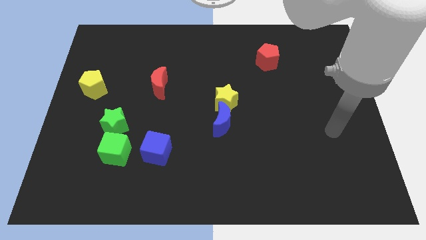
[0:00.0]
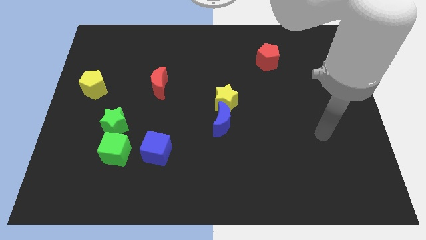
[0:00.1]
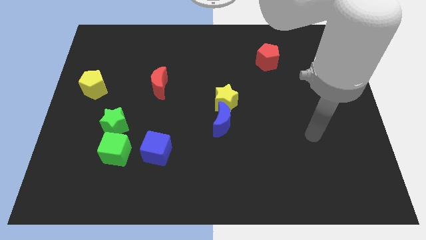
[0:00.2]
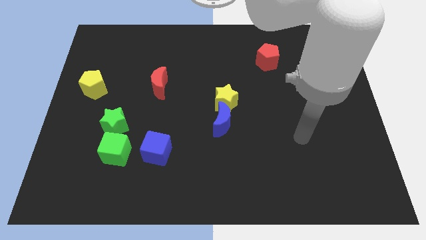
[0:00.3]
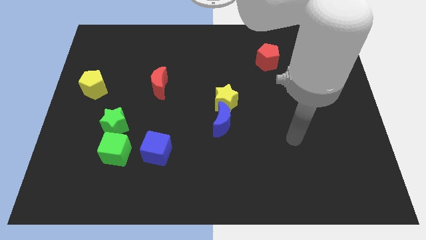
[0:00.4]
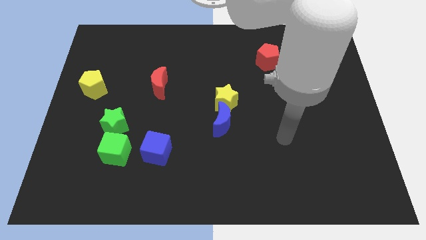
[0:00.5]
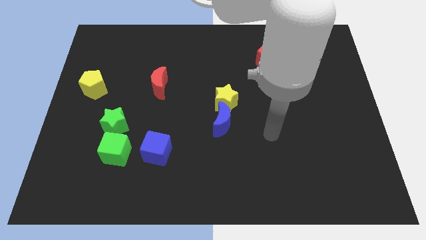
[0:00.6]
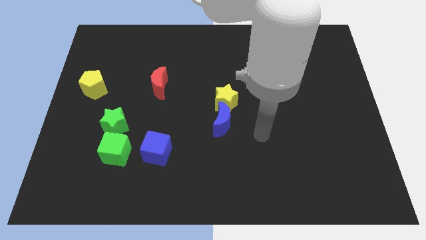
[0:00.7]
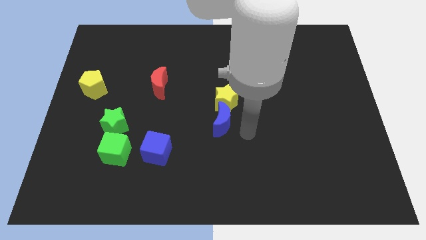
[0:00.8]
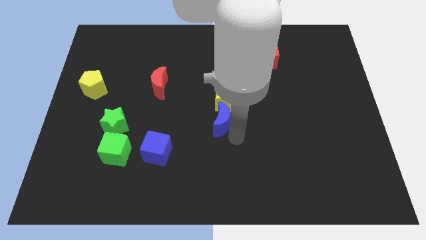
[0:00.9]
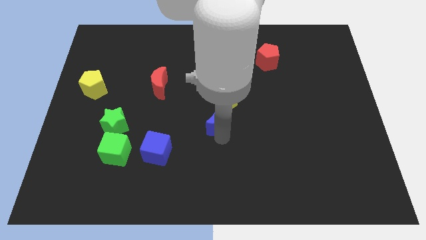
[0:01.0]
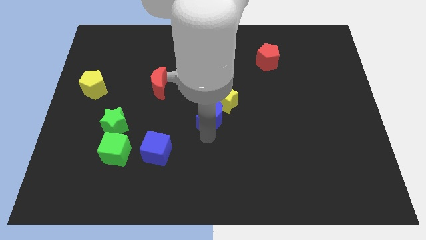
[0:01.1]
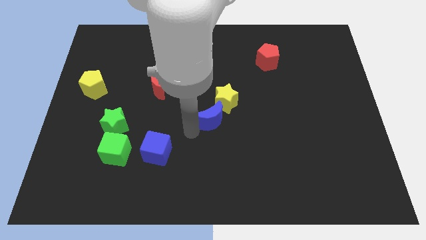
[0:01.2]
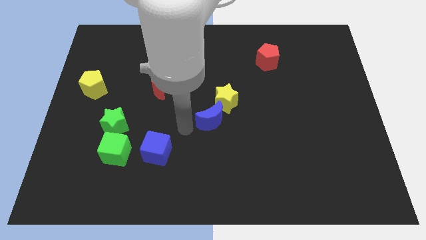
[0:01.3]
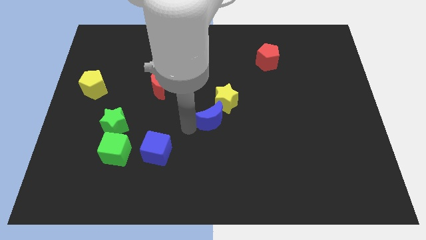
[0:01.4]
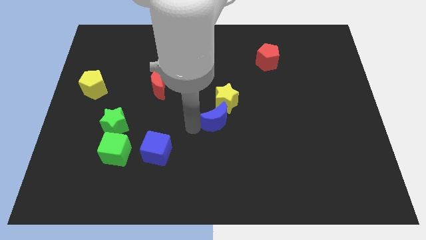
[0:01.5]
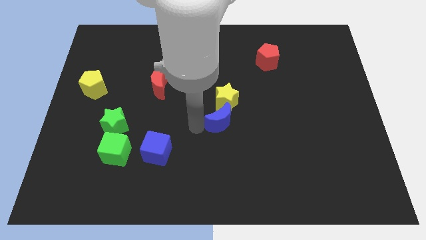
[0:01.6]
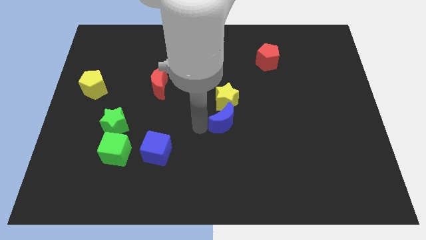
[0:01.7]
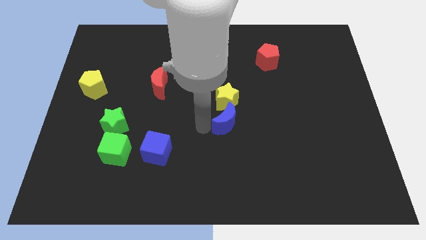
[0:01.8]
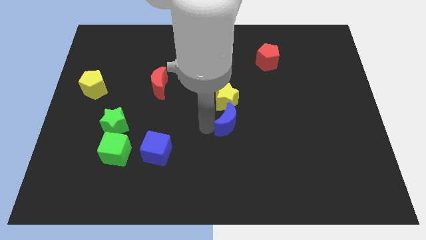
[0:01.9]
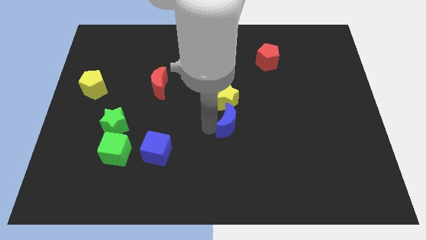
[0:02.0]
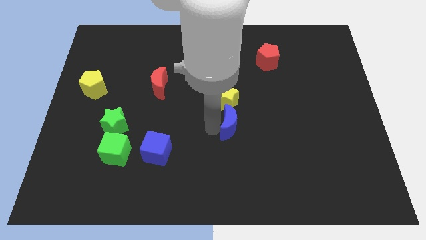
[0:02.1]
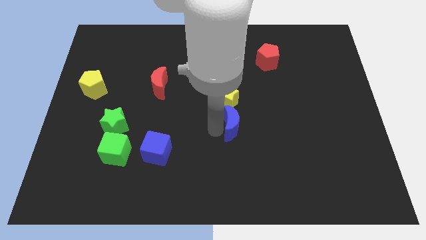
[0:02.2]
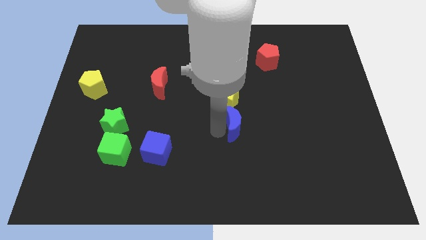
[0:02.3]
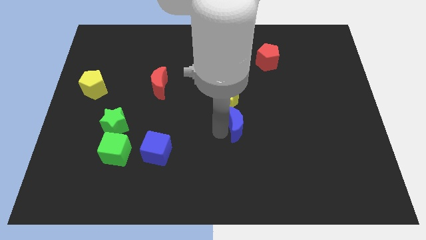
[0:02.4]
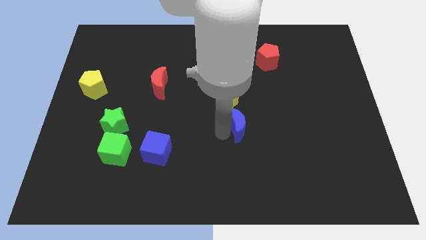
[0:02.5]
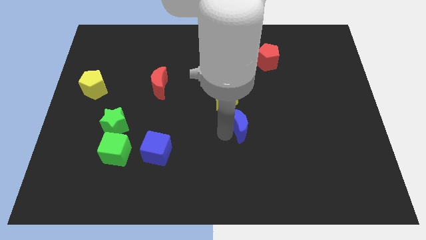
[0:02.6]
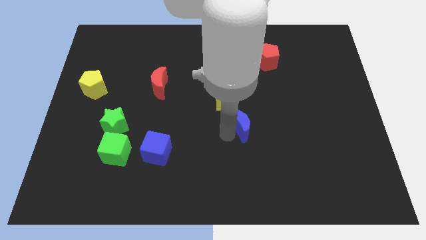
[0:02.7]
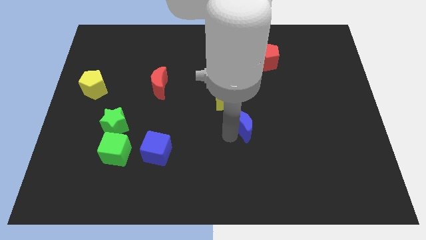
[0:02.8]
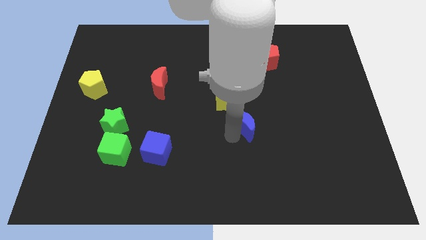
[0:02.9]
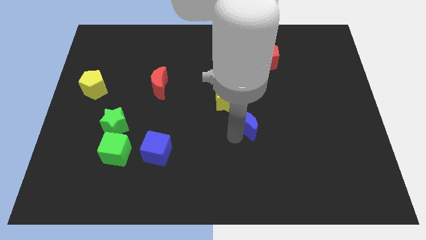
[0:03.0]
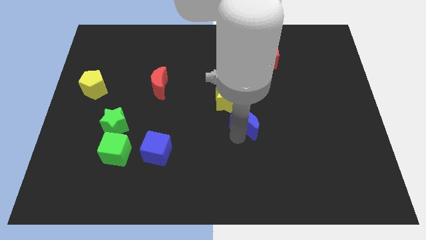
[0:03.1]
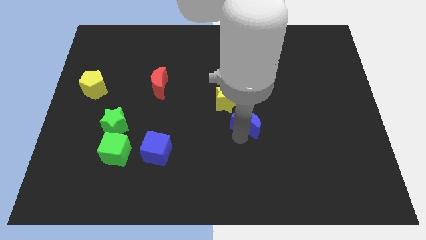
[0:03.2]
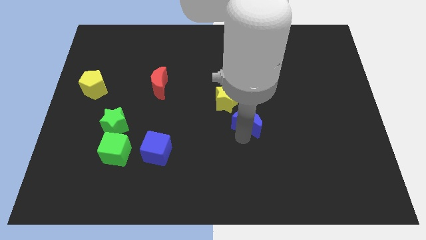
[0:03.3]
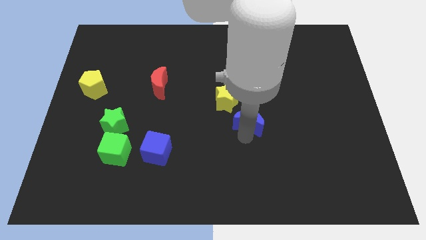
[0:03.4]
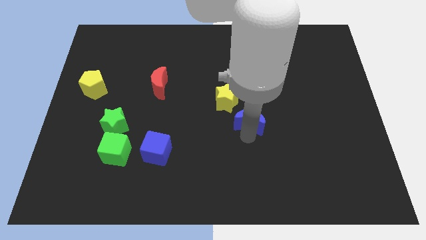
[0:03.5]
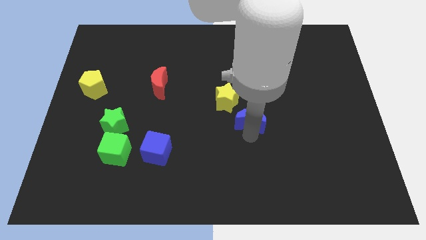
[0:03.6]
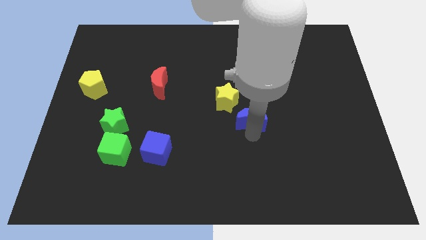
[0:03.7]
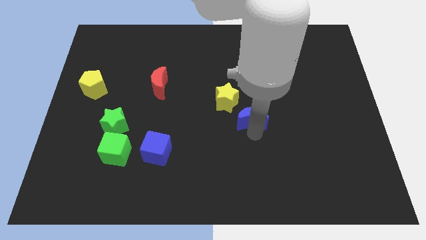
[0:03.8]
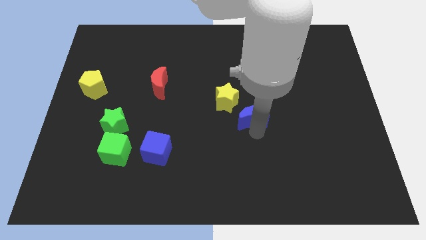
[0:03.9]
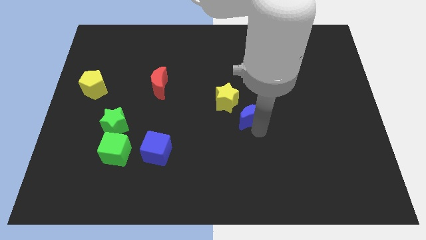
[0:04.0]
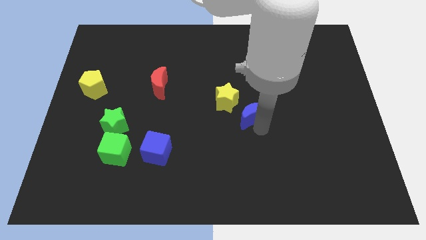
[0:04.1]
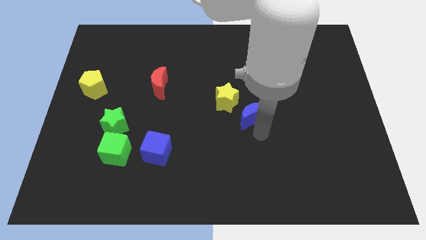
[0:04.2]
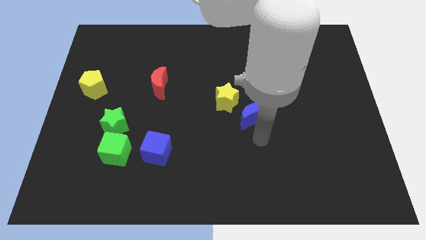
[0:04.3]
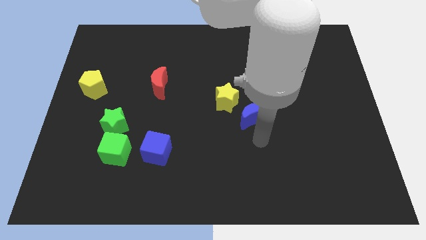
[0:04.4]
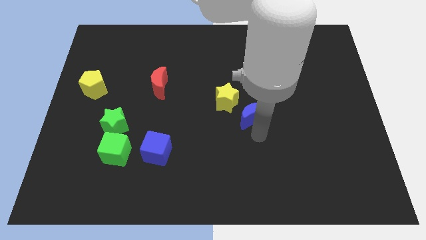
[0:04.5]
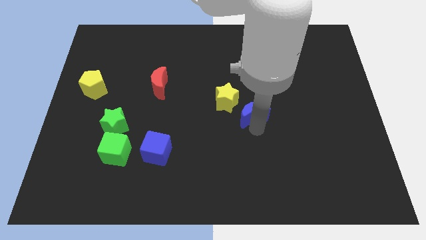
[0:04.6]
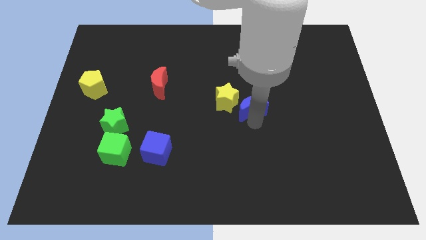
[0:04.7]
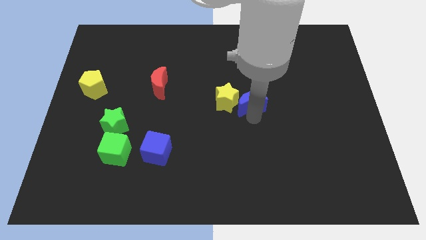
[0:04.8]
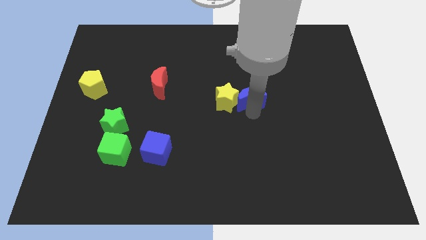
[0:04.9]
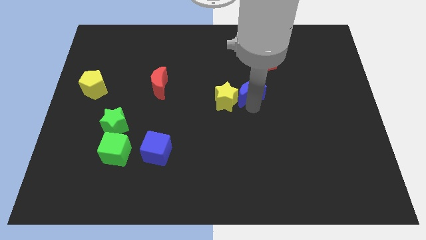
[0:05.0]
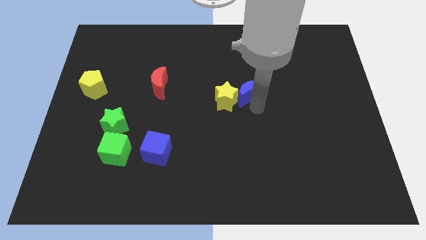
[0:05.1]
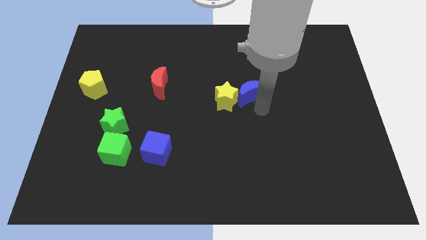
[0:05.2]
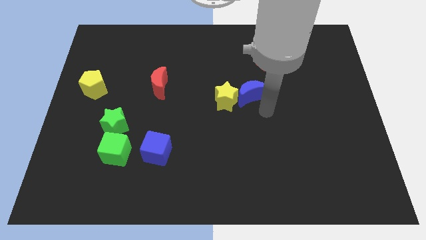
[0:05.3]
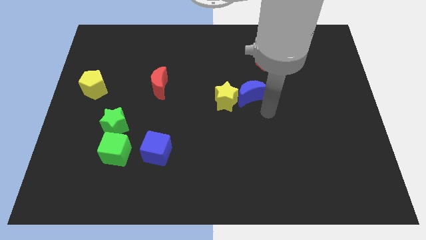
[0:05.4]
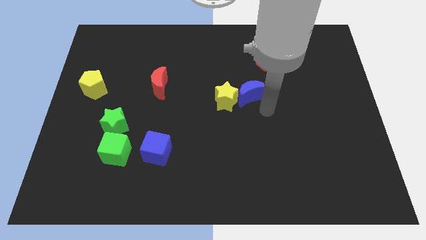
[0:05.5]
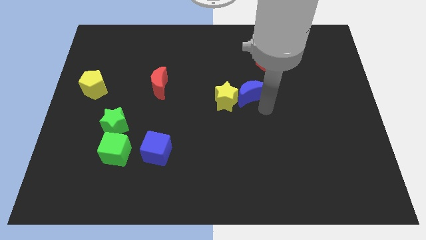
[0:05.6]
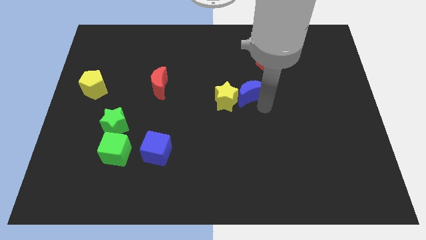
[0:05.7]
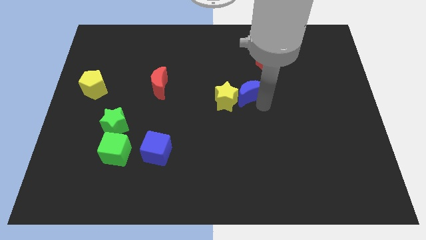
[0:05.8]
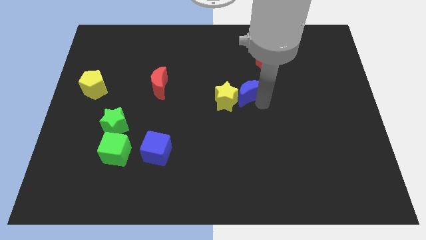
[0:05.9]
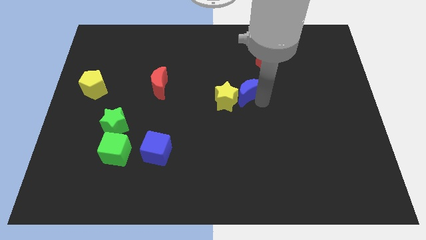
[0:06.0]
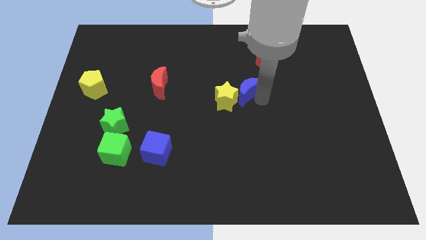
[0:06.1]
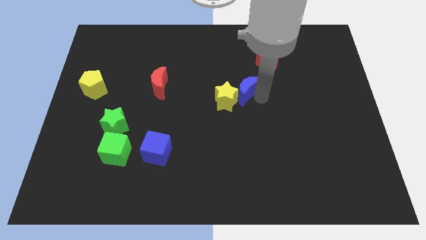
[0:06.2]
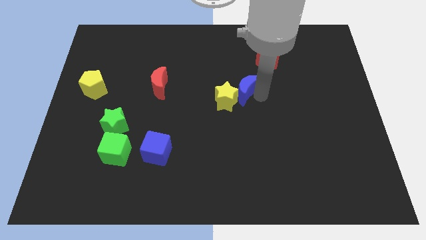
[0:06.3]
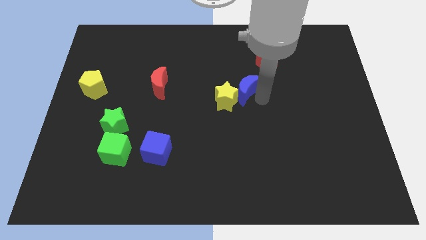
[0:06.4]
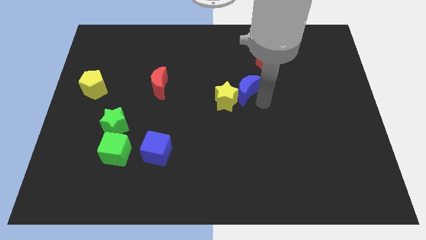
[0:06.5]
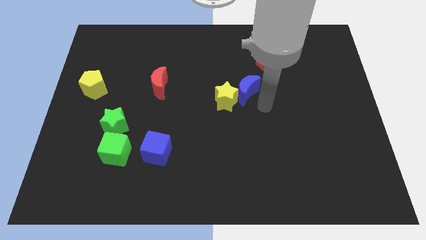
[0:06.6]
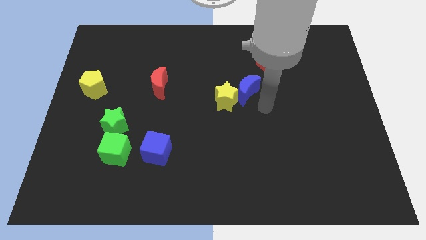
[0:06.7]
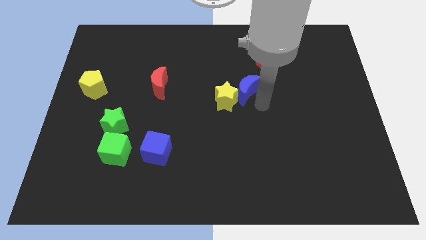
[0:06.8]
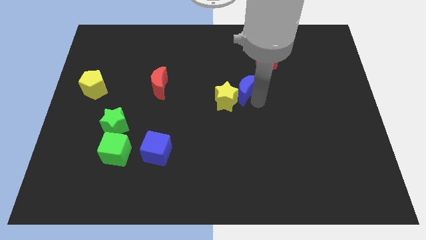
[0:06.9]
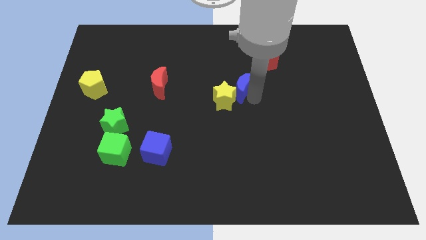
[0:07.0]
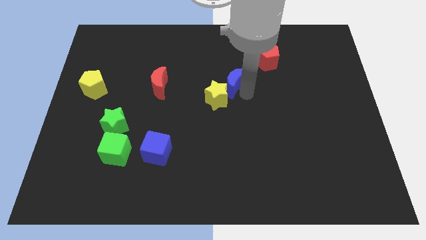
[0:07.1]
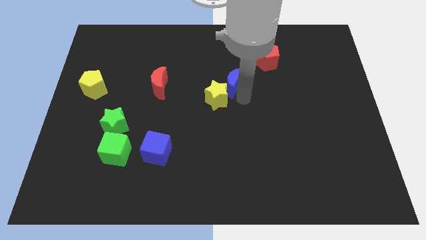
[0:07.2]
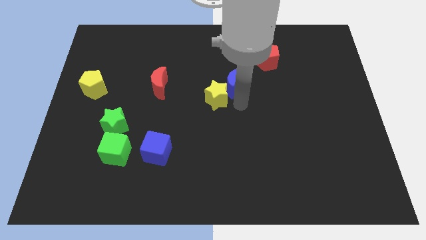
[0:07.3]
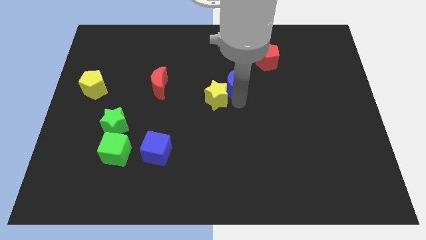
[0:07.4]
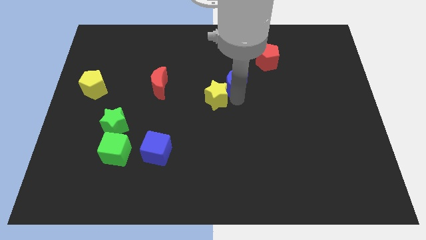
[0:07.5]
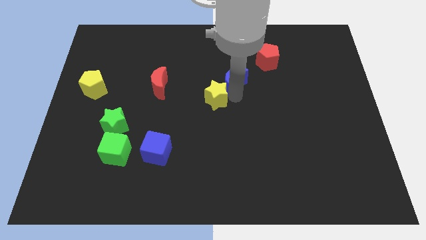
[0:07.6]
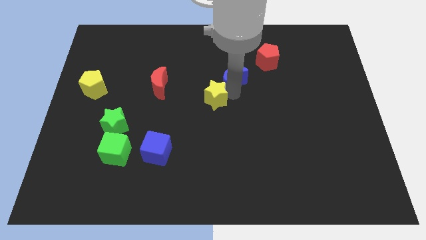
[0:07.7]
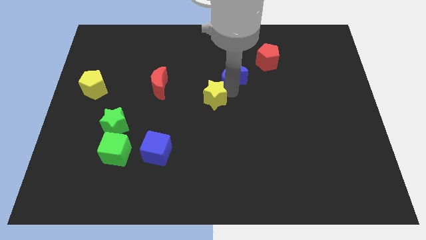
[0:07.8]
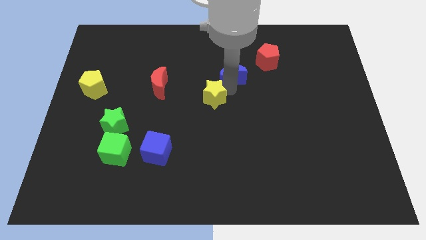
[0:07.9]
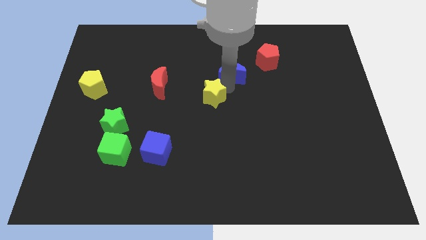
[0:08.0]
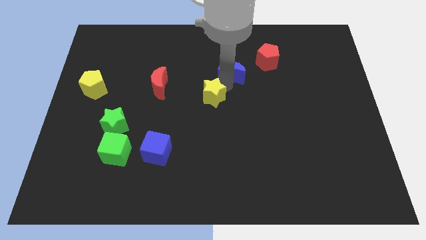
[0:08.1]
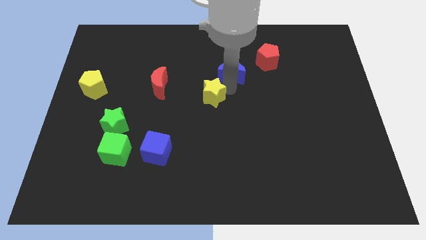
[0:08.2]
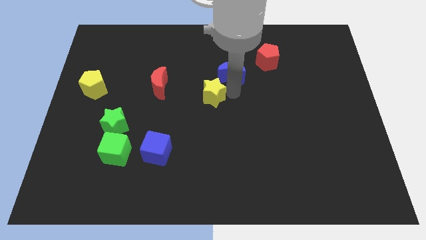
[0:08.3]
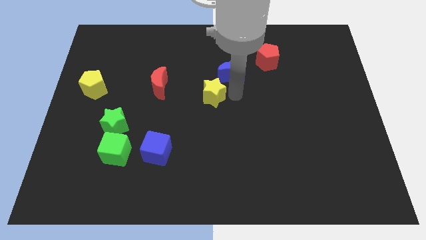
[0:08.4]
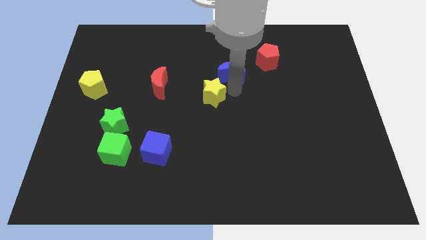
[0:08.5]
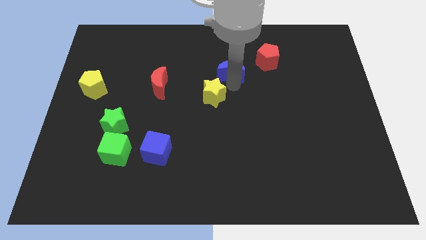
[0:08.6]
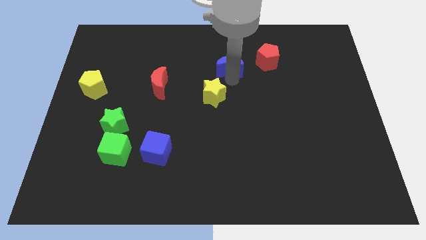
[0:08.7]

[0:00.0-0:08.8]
slide the blue moon left of the red pentagon
